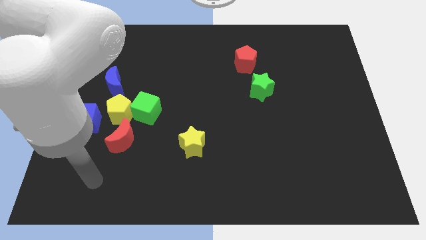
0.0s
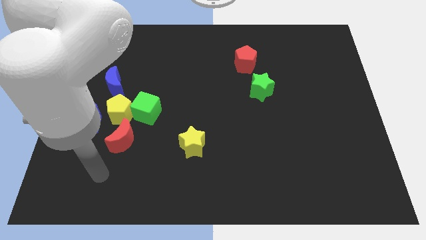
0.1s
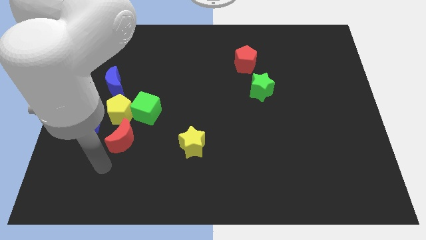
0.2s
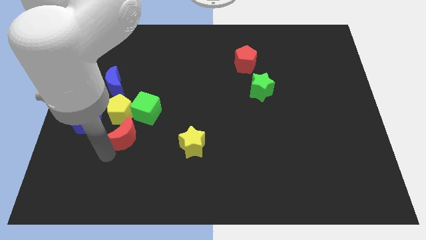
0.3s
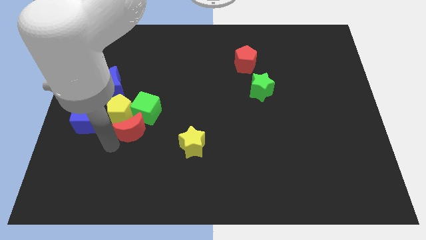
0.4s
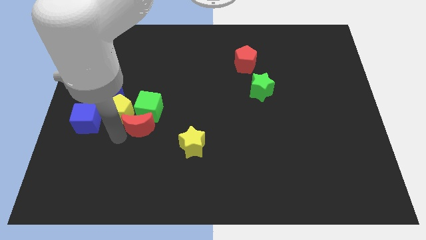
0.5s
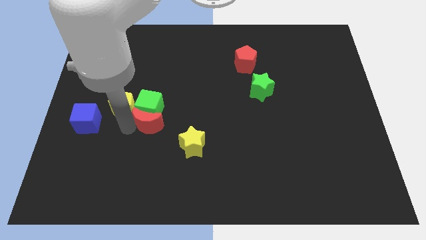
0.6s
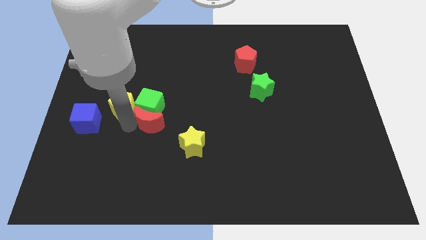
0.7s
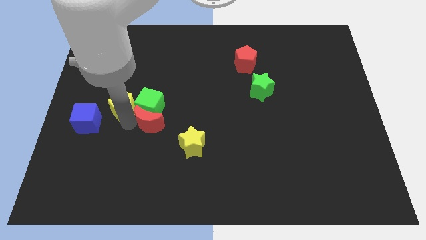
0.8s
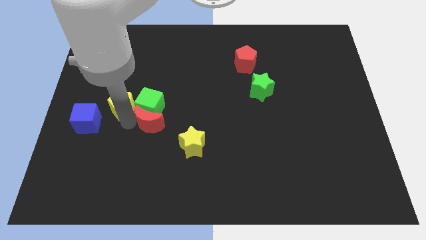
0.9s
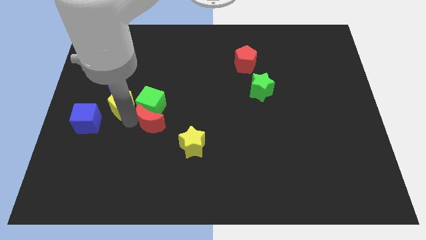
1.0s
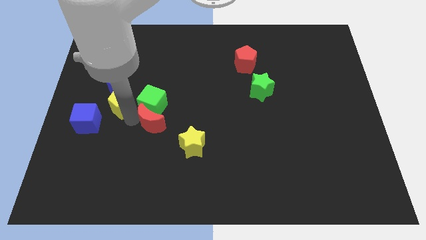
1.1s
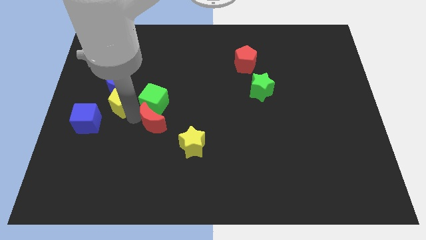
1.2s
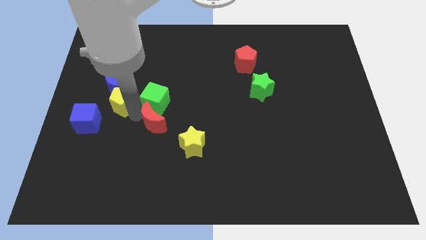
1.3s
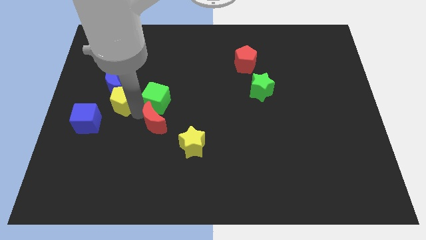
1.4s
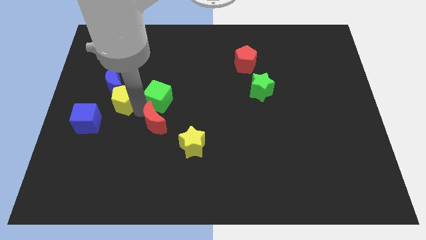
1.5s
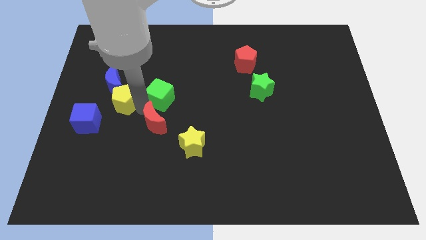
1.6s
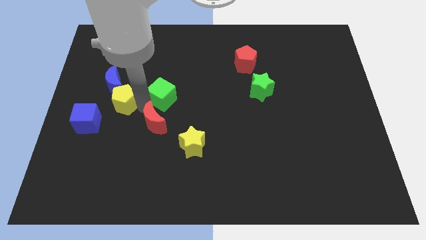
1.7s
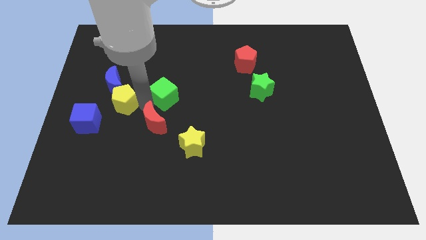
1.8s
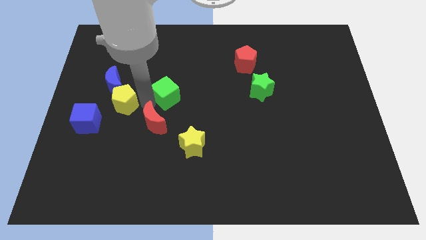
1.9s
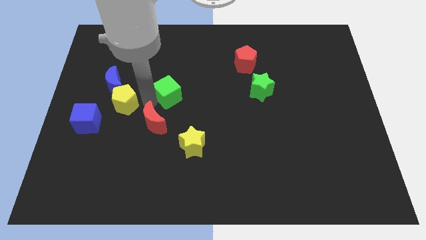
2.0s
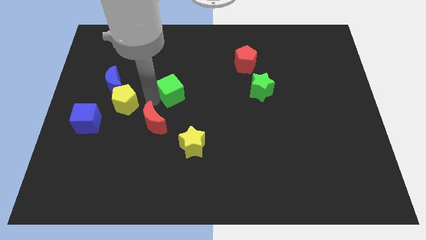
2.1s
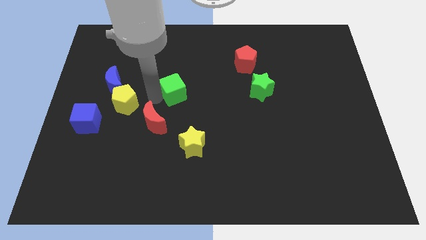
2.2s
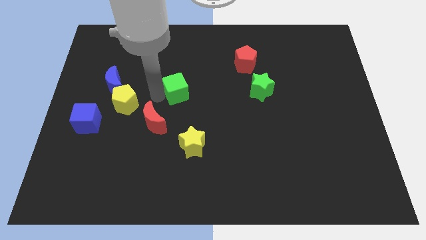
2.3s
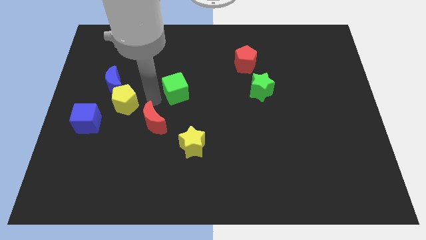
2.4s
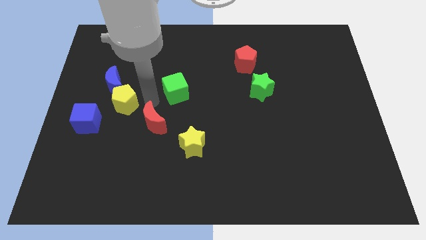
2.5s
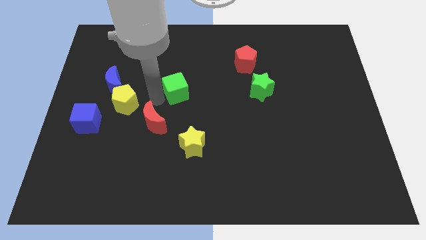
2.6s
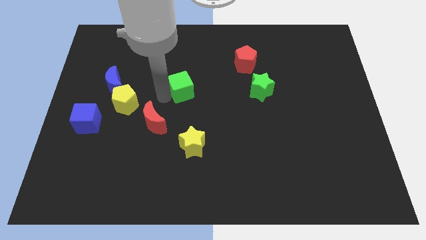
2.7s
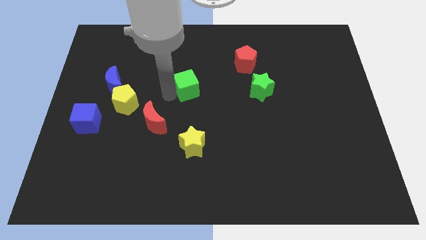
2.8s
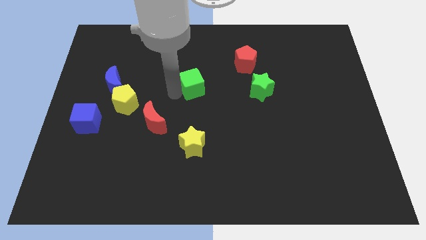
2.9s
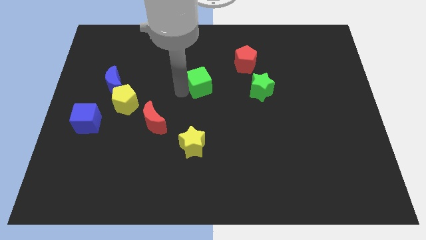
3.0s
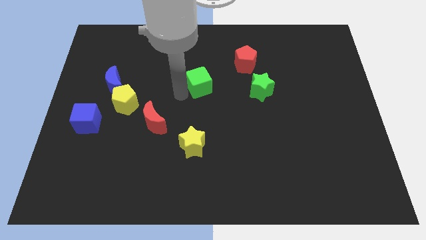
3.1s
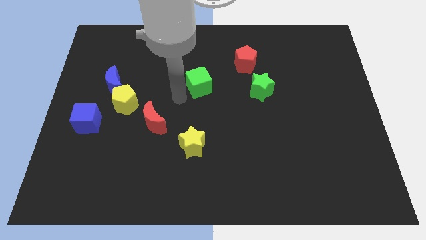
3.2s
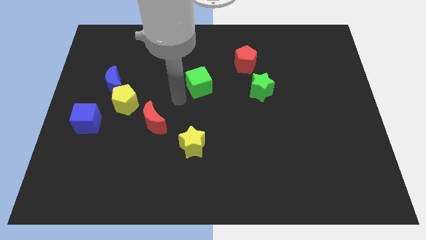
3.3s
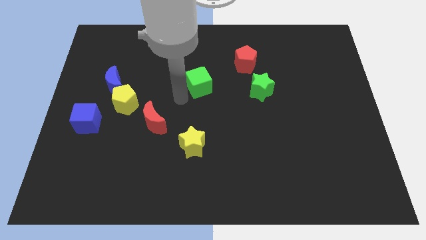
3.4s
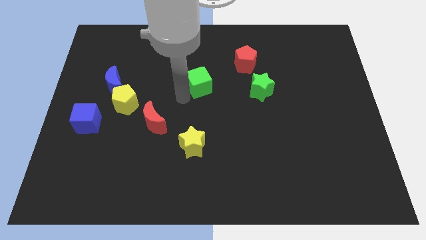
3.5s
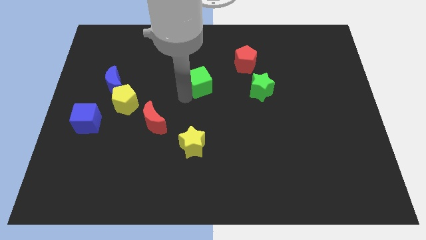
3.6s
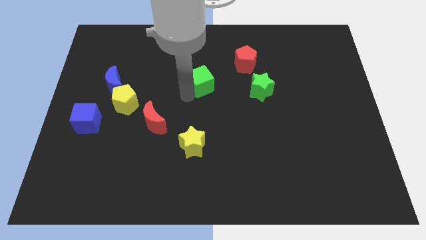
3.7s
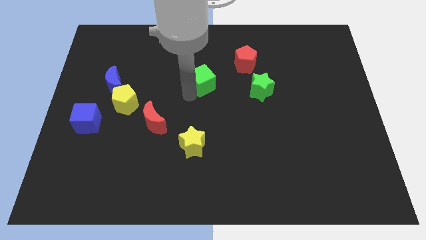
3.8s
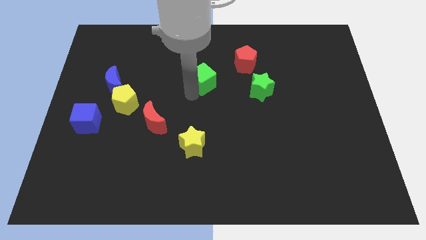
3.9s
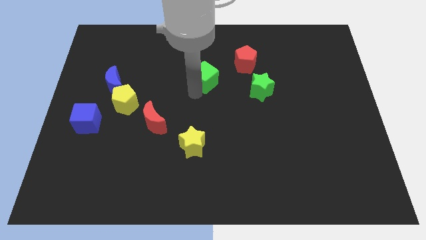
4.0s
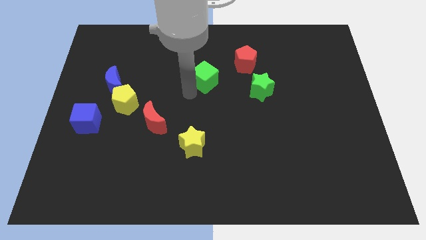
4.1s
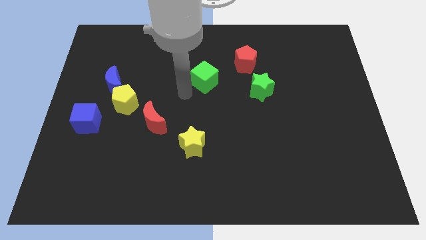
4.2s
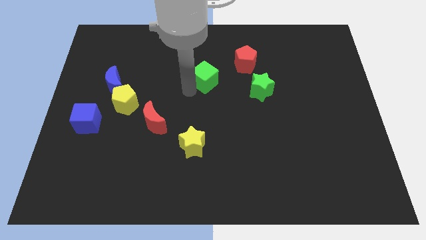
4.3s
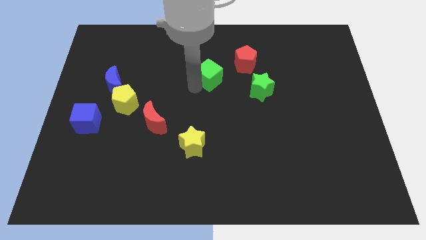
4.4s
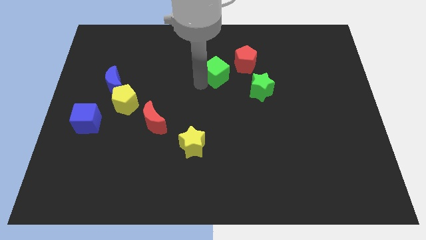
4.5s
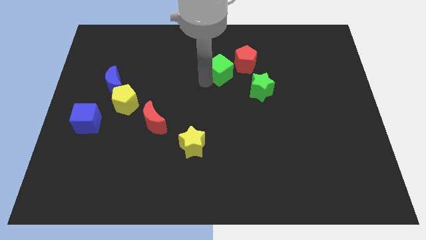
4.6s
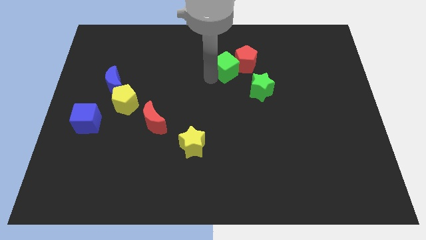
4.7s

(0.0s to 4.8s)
move the green cube to the red pentagon

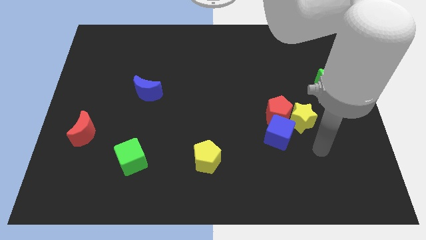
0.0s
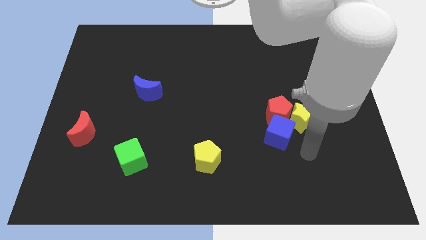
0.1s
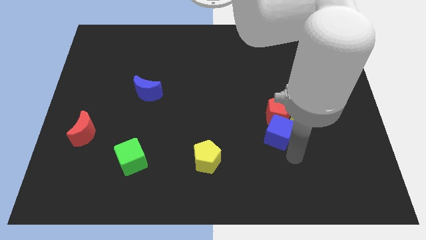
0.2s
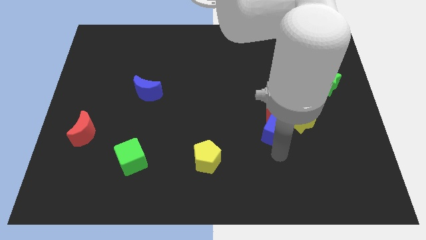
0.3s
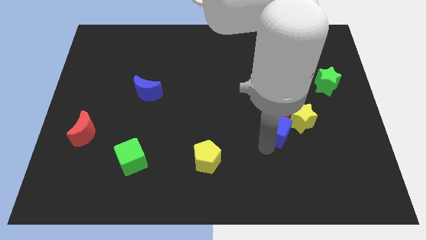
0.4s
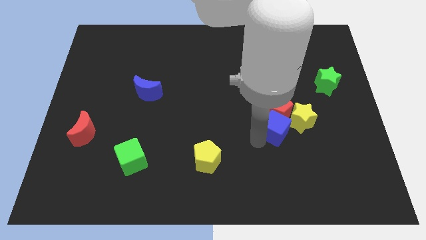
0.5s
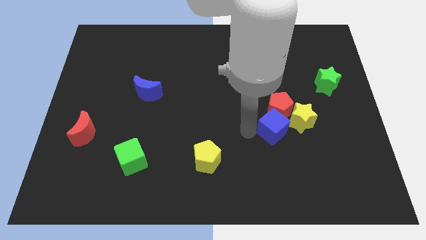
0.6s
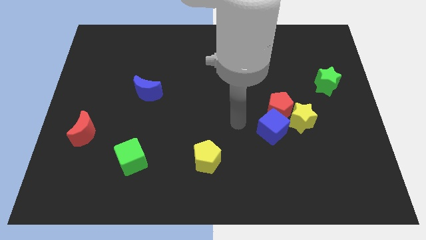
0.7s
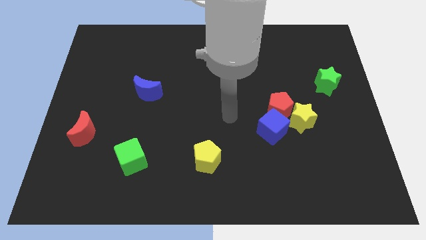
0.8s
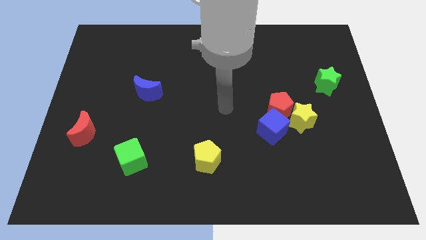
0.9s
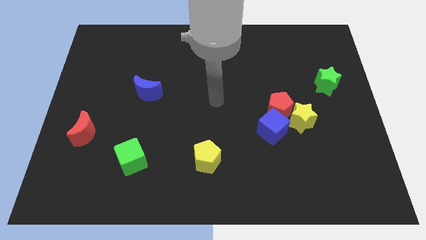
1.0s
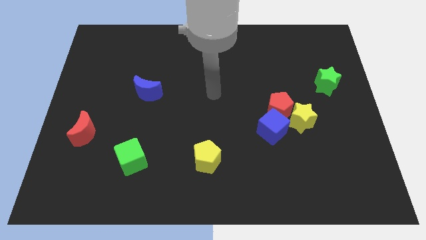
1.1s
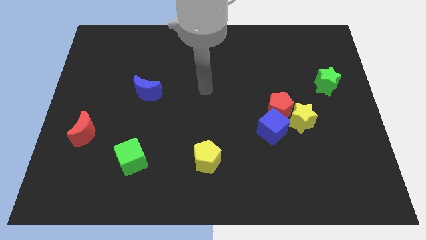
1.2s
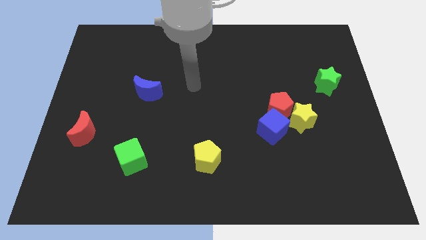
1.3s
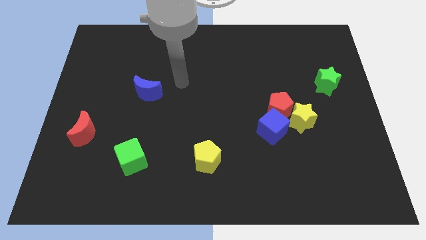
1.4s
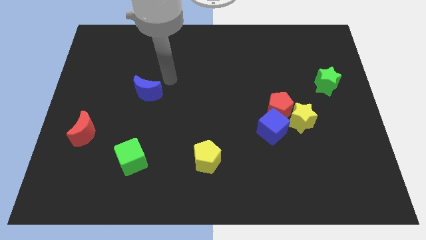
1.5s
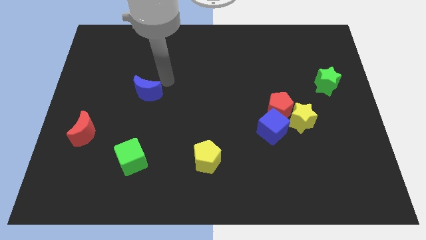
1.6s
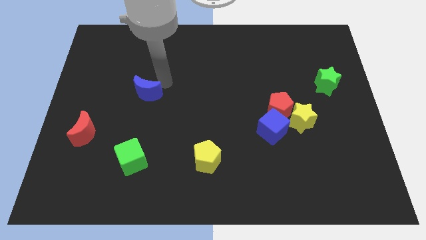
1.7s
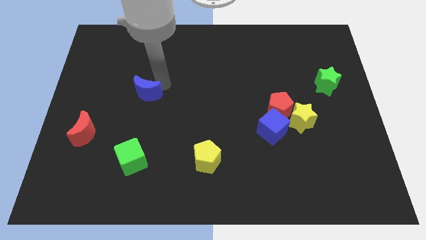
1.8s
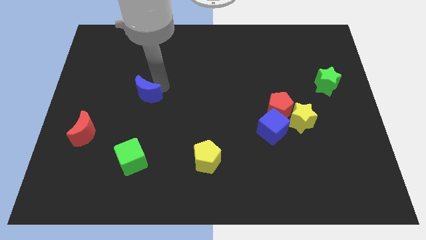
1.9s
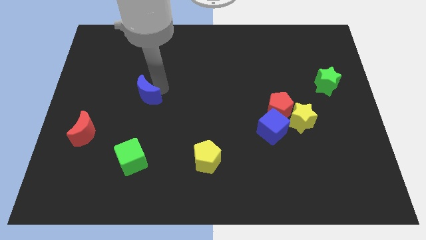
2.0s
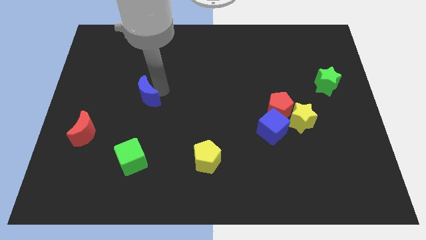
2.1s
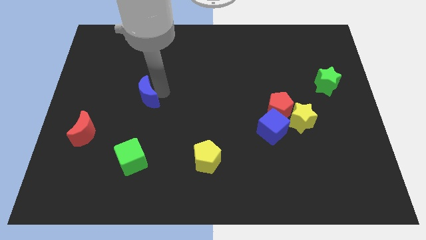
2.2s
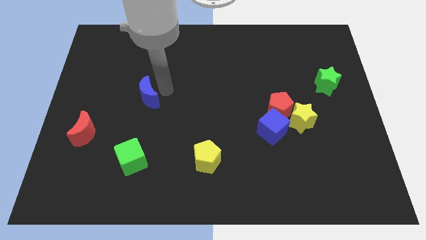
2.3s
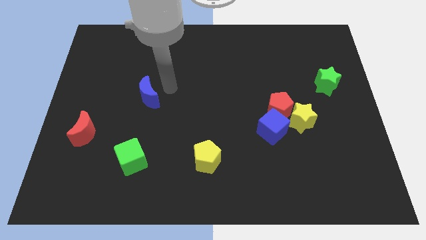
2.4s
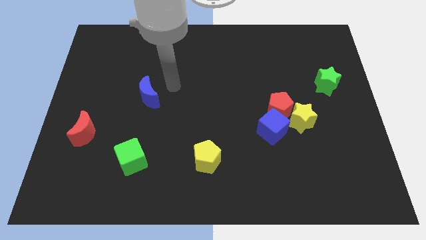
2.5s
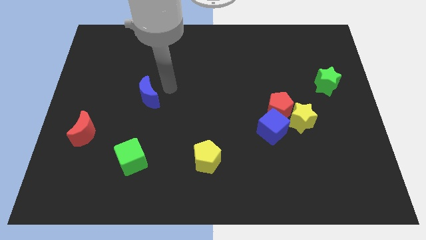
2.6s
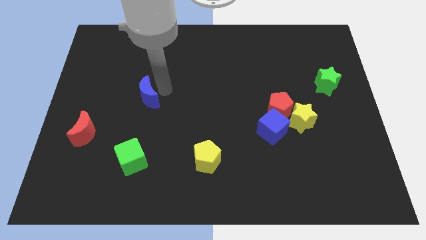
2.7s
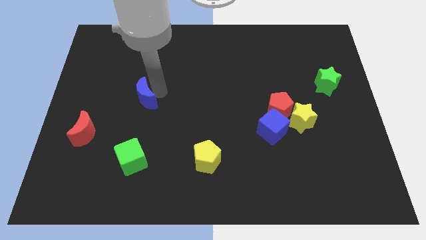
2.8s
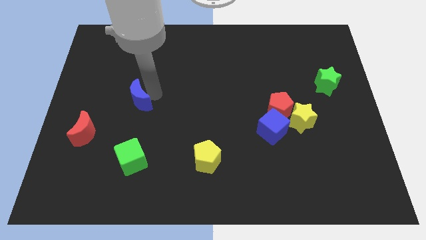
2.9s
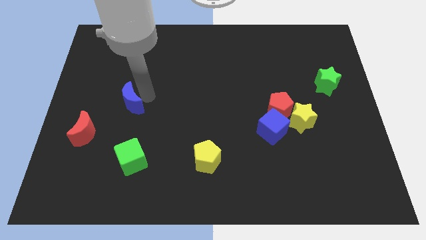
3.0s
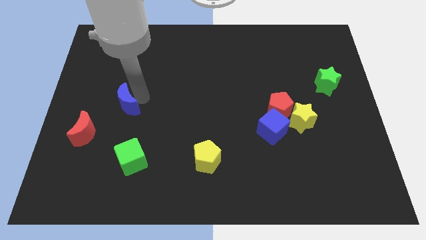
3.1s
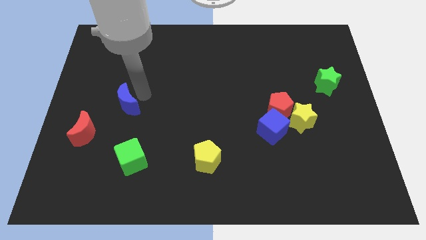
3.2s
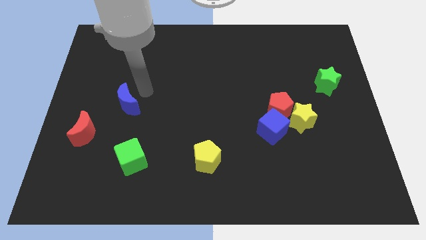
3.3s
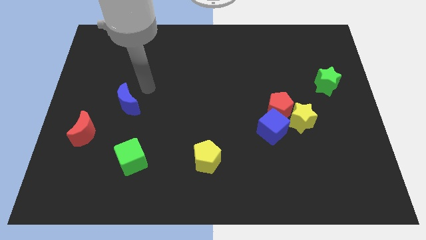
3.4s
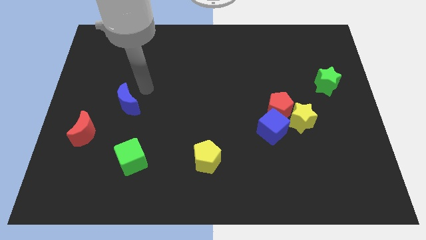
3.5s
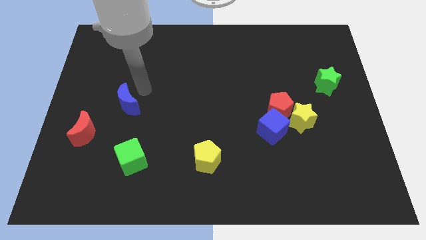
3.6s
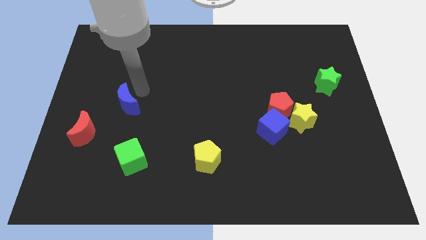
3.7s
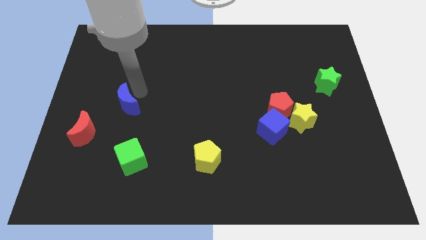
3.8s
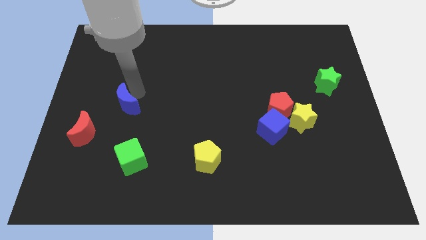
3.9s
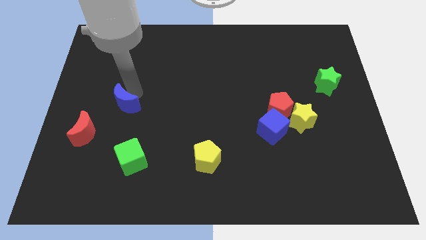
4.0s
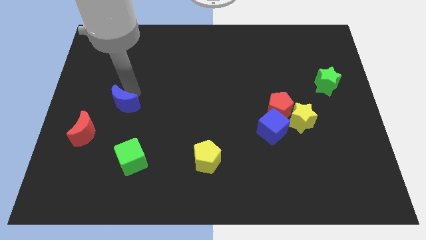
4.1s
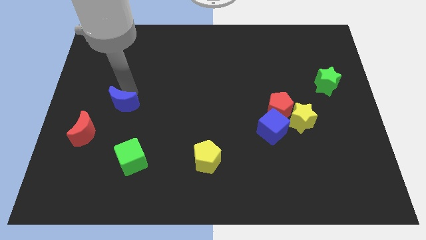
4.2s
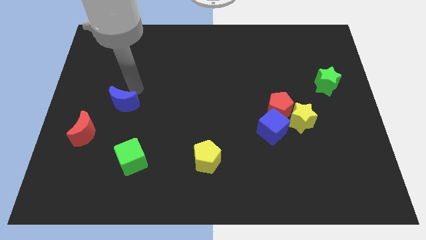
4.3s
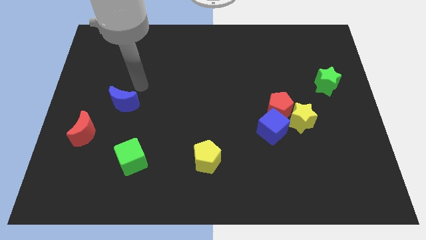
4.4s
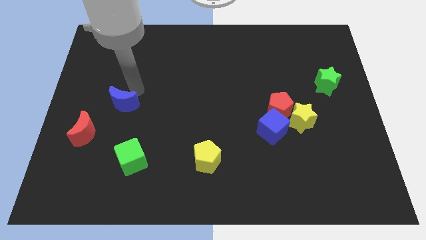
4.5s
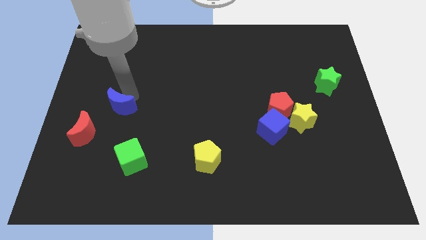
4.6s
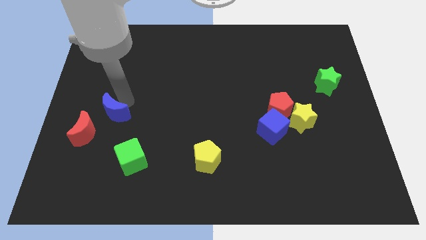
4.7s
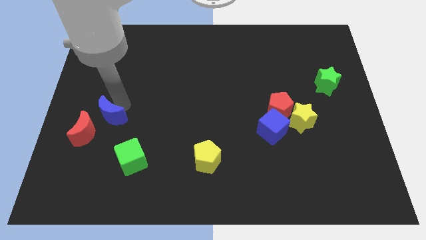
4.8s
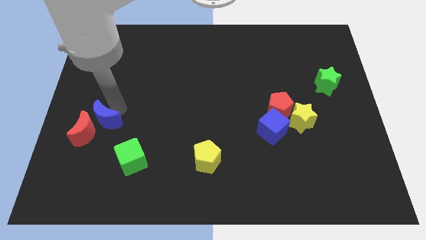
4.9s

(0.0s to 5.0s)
put the blue moon to the red moon
